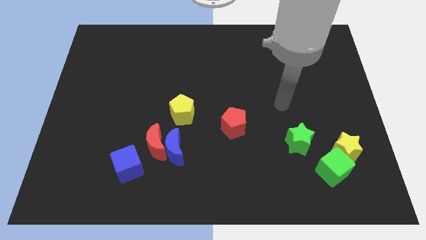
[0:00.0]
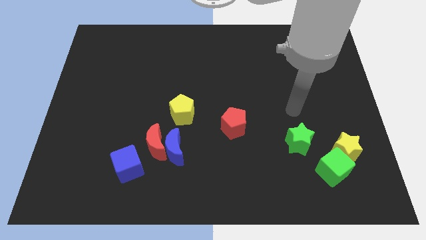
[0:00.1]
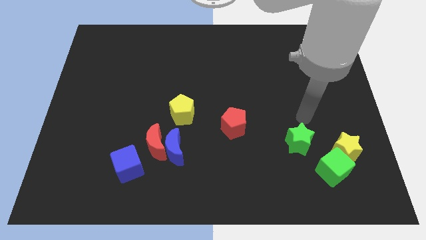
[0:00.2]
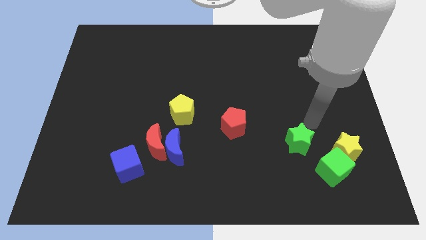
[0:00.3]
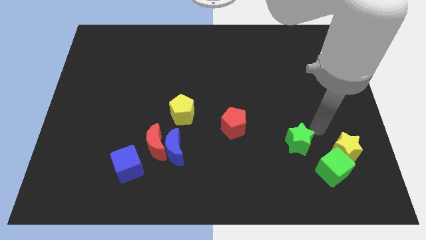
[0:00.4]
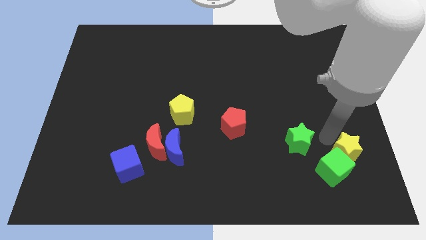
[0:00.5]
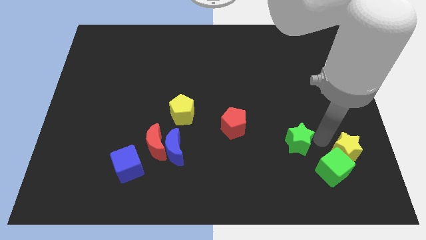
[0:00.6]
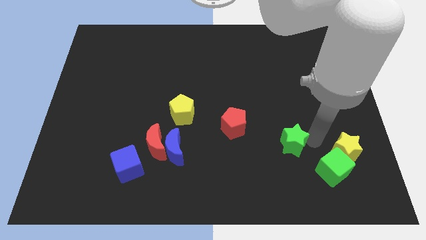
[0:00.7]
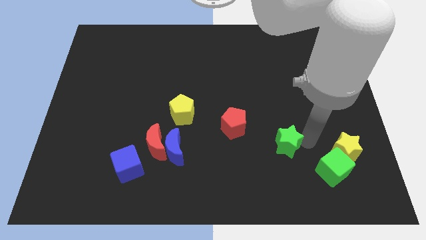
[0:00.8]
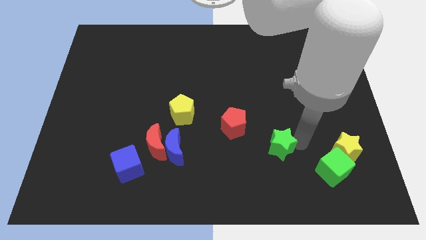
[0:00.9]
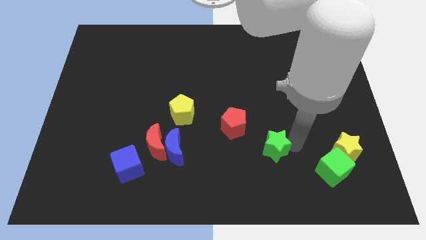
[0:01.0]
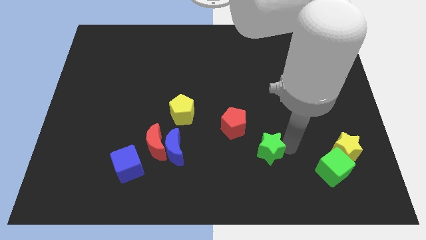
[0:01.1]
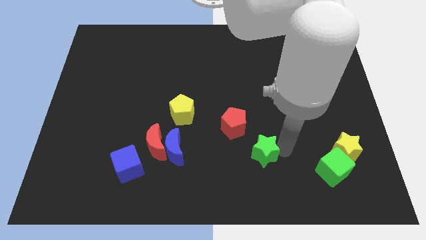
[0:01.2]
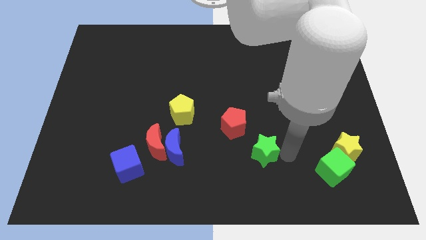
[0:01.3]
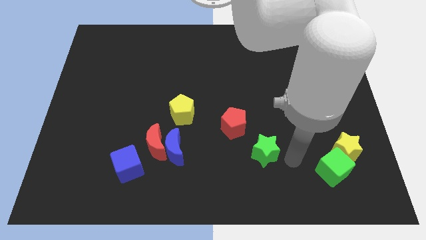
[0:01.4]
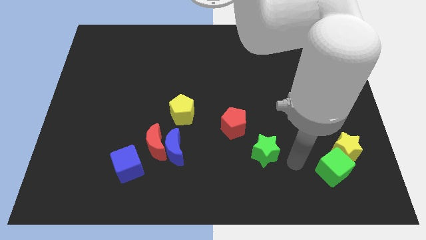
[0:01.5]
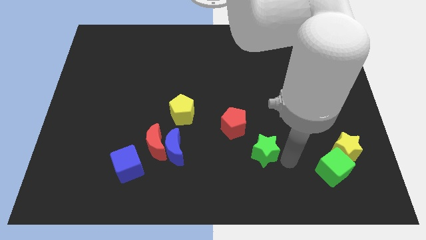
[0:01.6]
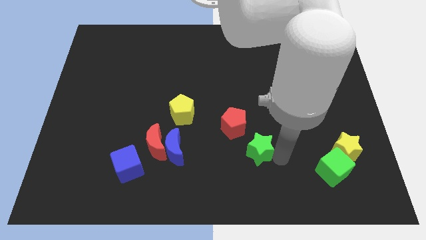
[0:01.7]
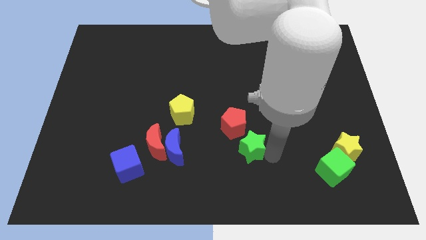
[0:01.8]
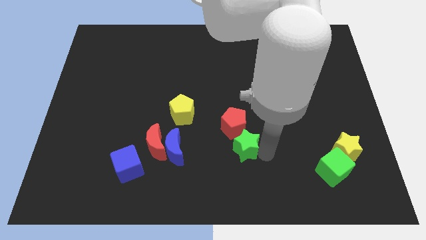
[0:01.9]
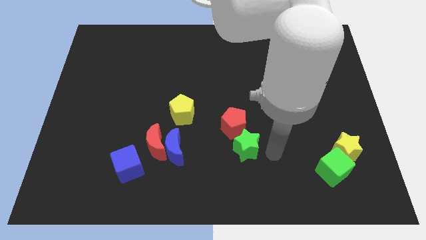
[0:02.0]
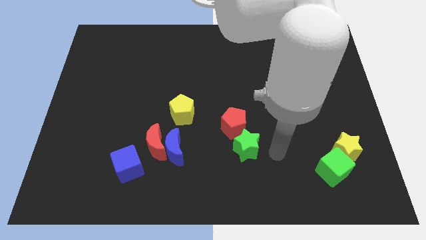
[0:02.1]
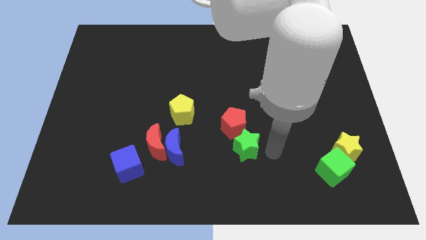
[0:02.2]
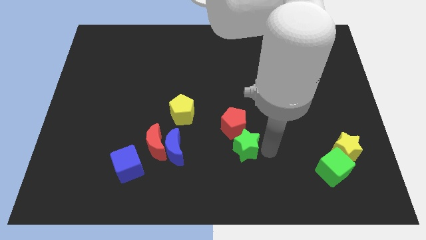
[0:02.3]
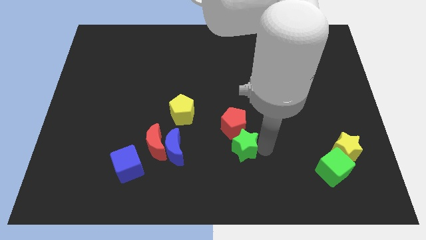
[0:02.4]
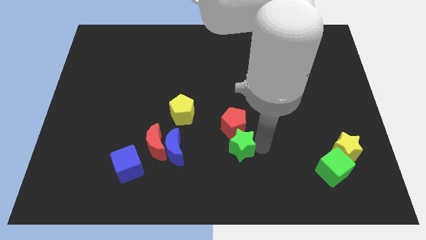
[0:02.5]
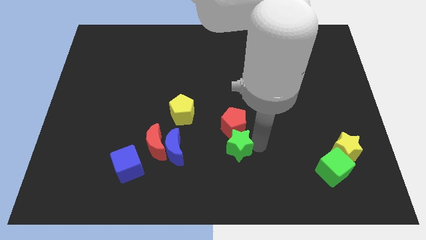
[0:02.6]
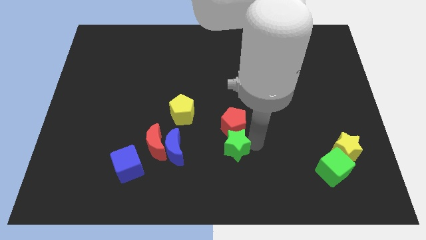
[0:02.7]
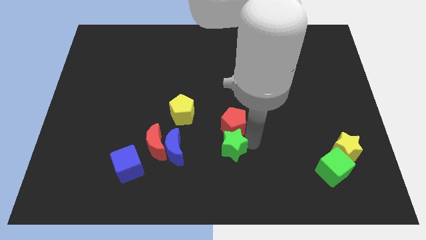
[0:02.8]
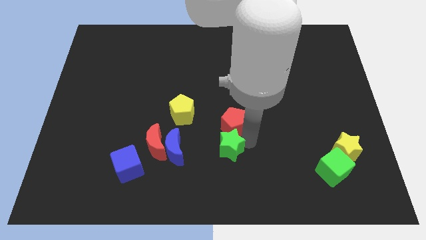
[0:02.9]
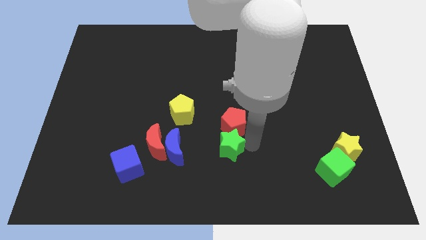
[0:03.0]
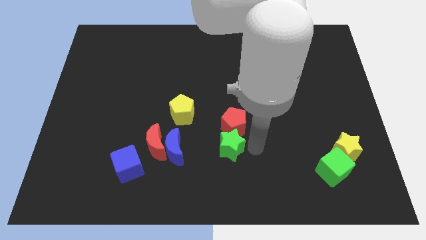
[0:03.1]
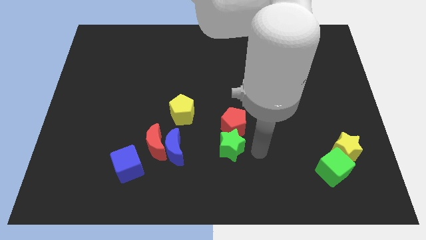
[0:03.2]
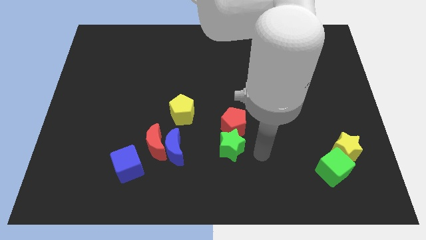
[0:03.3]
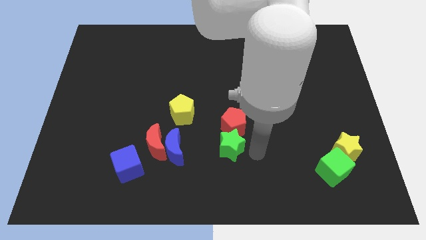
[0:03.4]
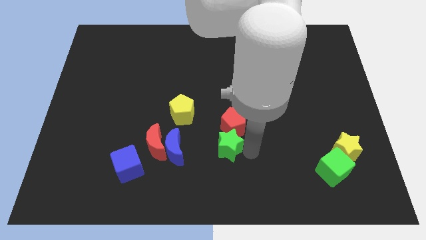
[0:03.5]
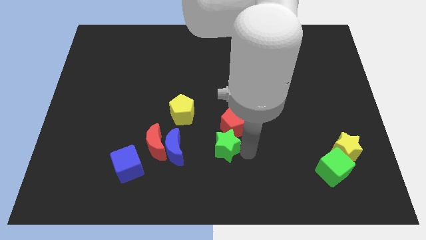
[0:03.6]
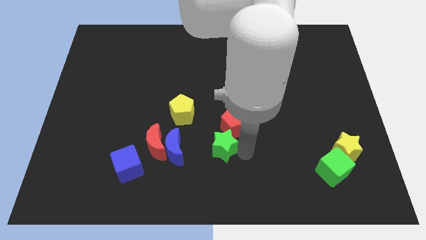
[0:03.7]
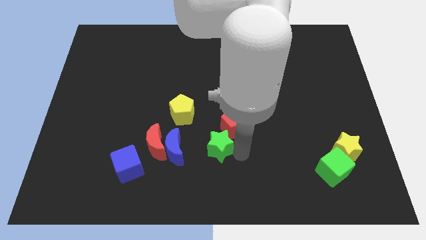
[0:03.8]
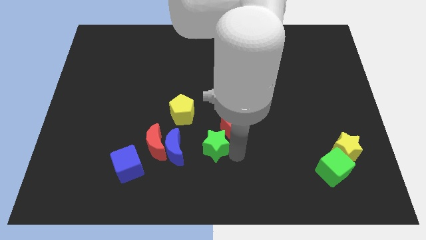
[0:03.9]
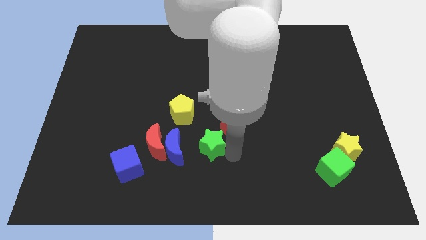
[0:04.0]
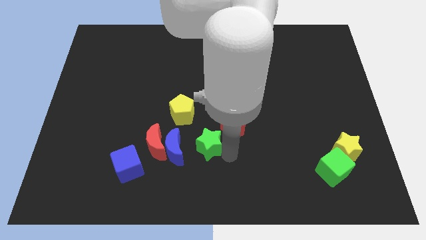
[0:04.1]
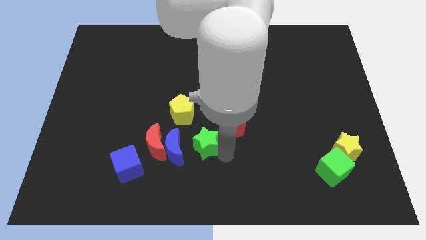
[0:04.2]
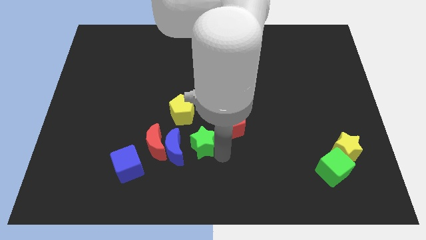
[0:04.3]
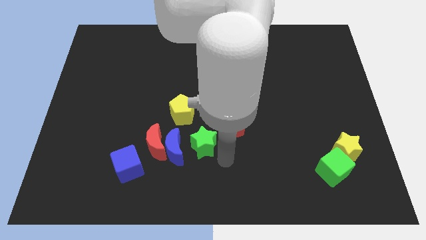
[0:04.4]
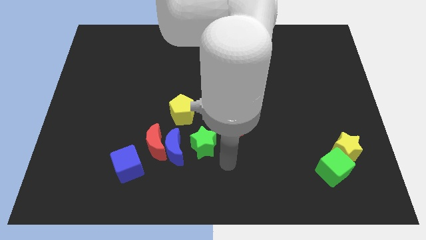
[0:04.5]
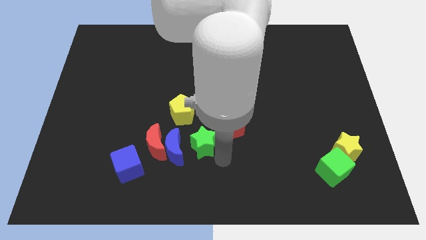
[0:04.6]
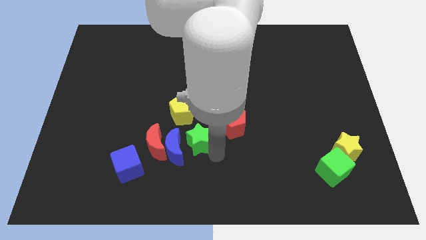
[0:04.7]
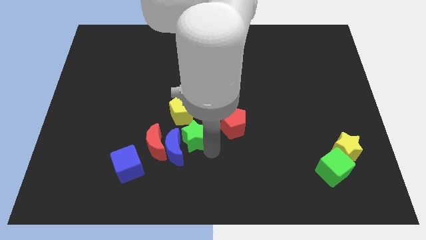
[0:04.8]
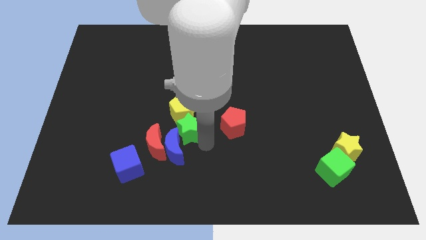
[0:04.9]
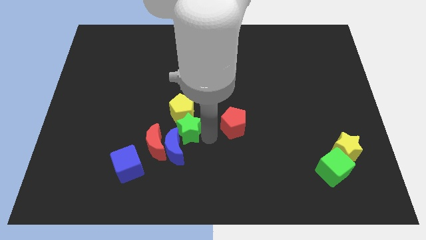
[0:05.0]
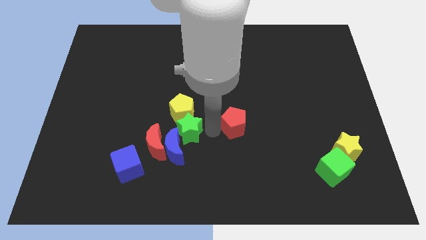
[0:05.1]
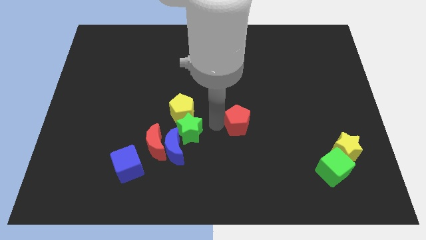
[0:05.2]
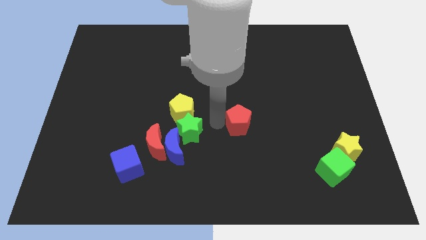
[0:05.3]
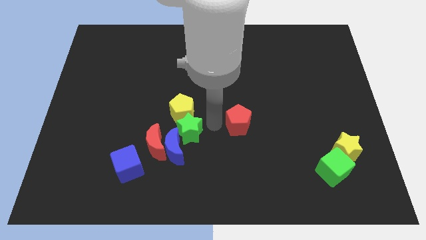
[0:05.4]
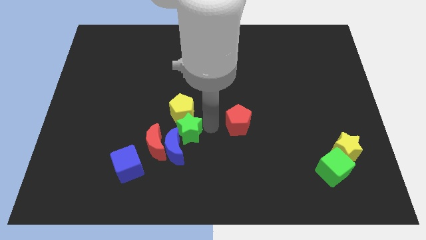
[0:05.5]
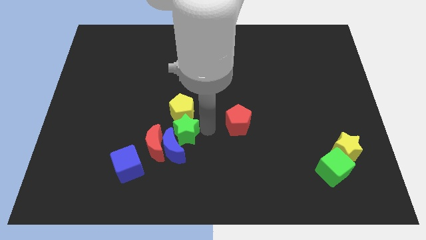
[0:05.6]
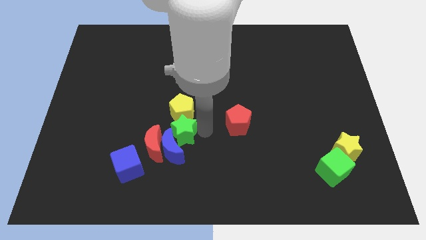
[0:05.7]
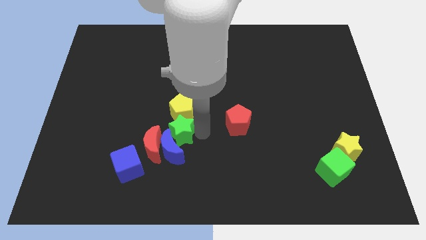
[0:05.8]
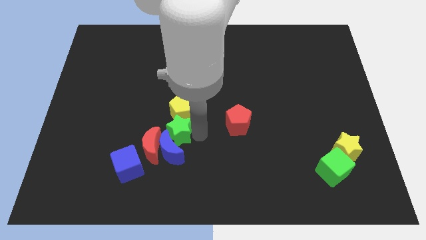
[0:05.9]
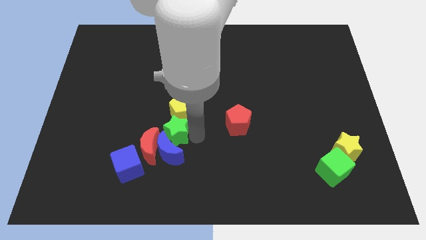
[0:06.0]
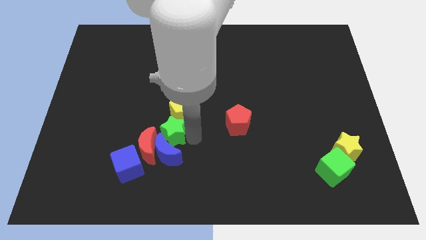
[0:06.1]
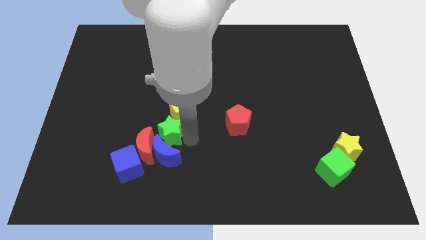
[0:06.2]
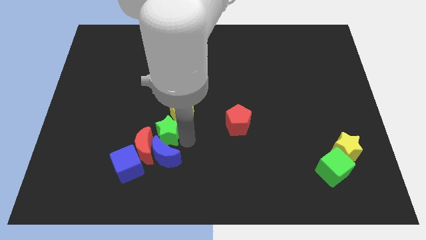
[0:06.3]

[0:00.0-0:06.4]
push the green star close to the red moon
